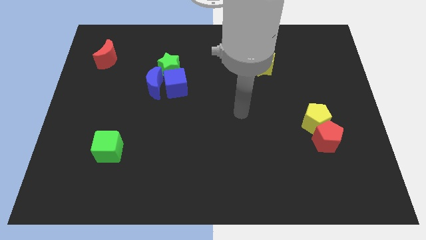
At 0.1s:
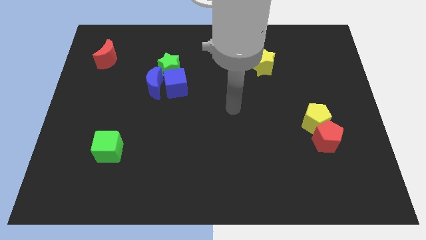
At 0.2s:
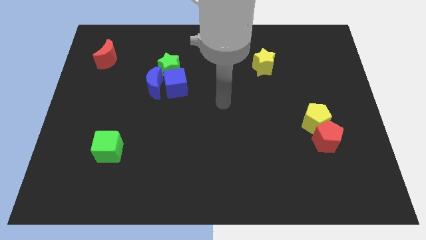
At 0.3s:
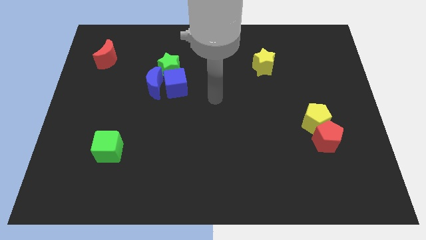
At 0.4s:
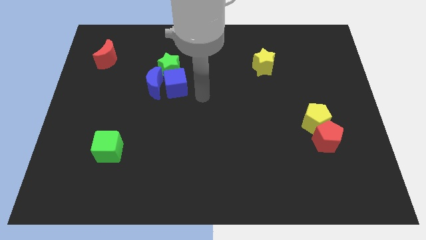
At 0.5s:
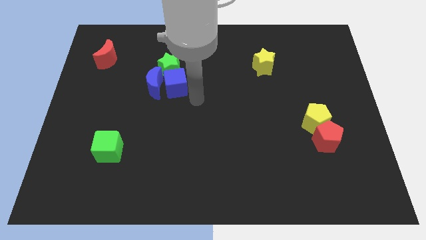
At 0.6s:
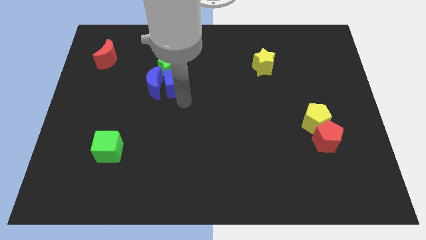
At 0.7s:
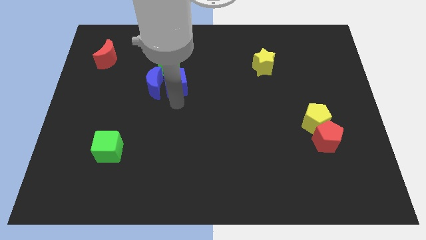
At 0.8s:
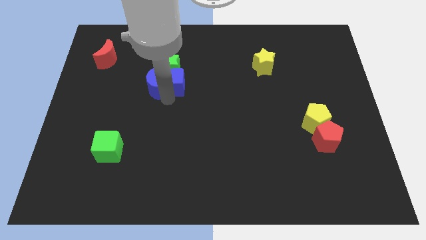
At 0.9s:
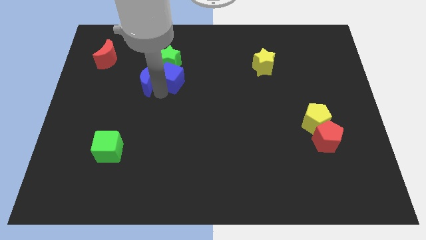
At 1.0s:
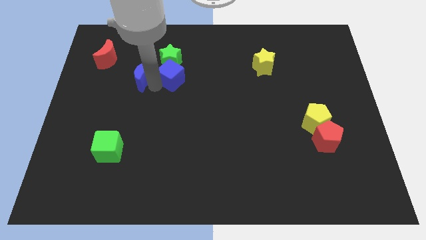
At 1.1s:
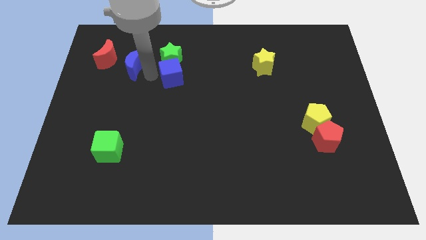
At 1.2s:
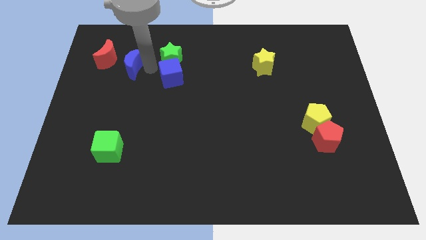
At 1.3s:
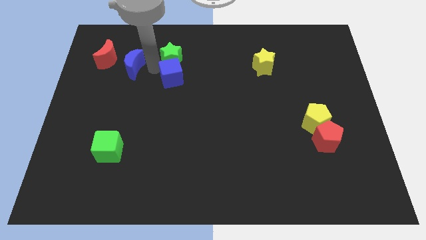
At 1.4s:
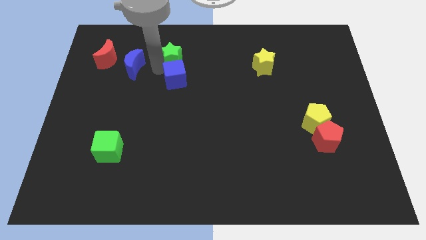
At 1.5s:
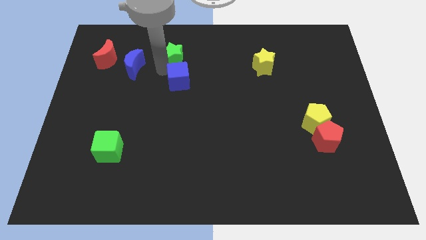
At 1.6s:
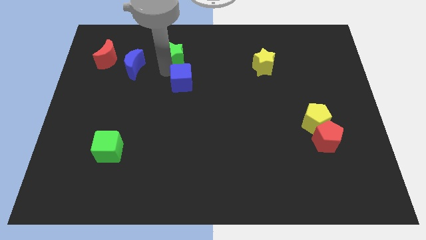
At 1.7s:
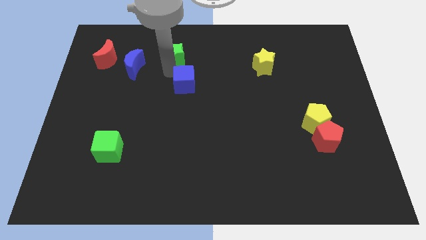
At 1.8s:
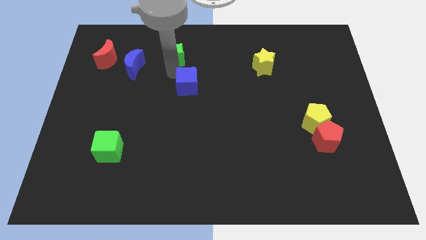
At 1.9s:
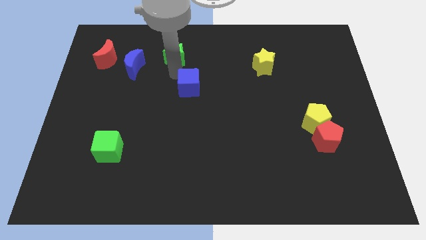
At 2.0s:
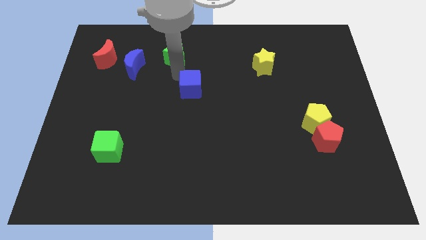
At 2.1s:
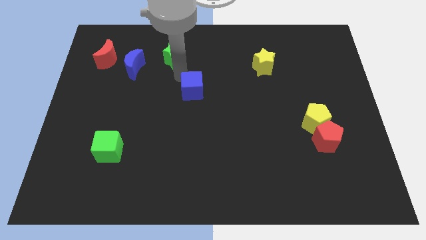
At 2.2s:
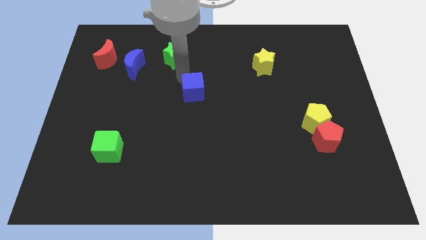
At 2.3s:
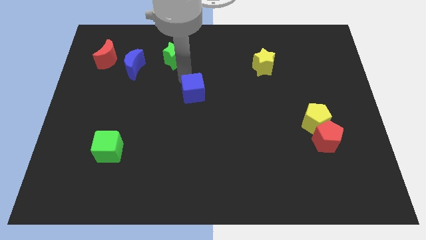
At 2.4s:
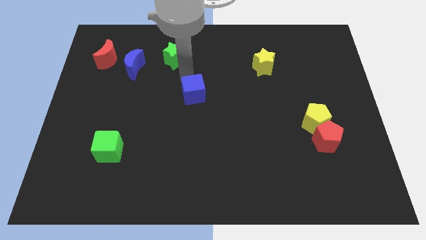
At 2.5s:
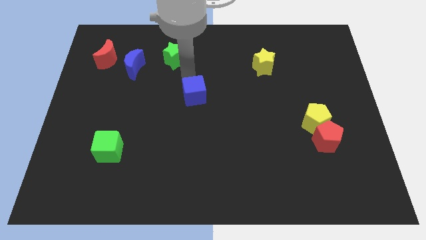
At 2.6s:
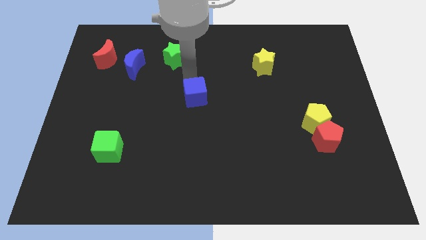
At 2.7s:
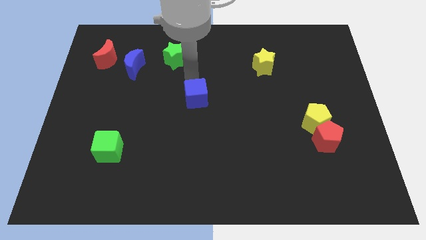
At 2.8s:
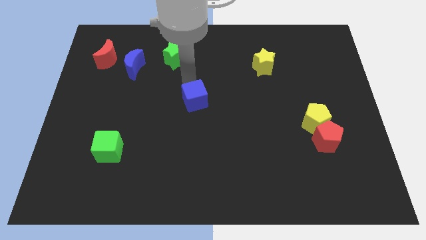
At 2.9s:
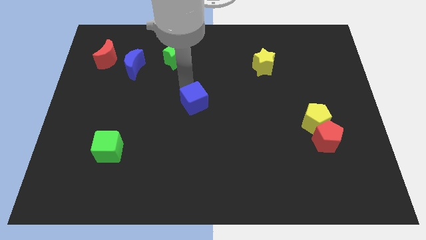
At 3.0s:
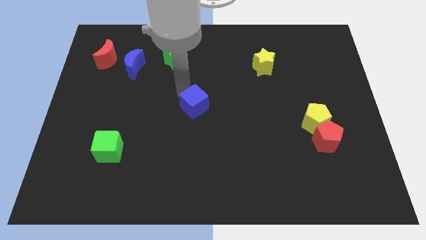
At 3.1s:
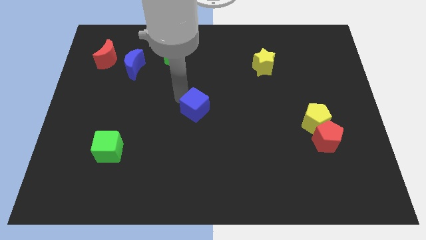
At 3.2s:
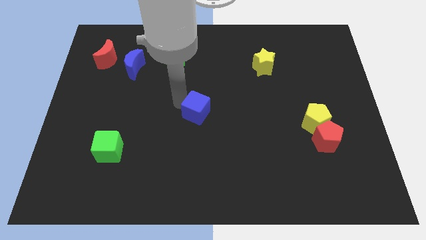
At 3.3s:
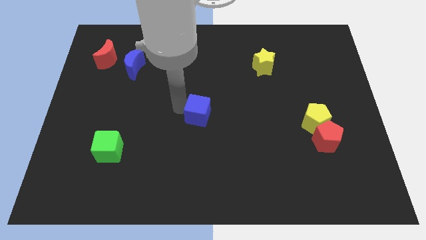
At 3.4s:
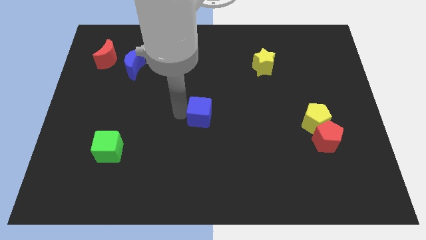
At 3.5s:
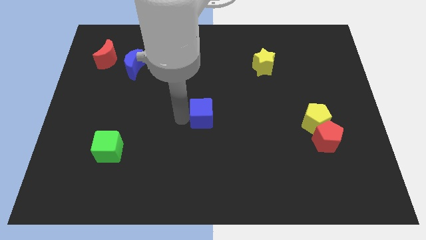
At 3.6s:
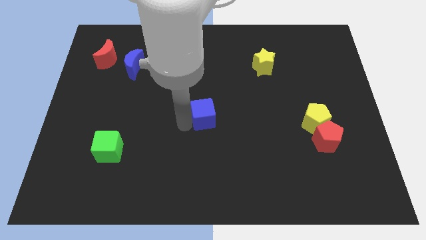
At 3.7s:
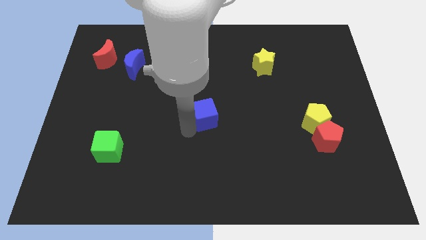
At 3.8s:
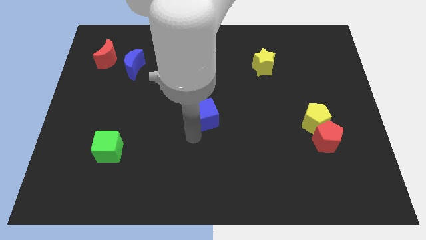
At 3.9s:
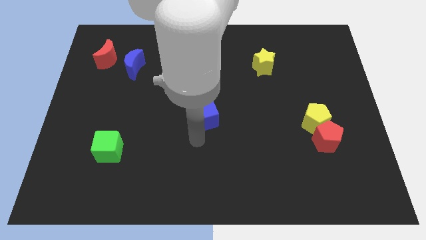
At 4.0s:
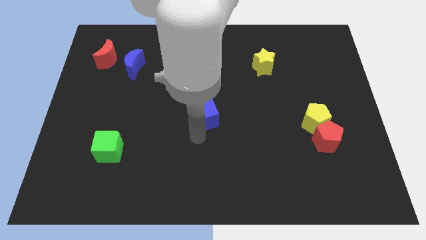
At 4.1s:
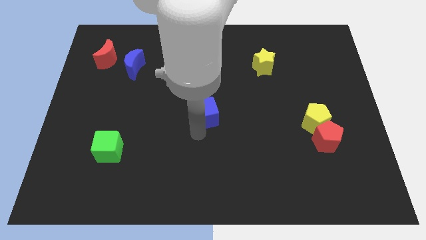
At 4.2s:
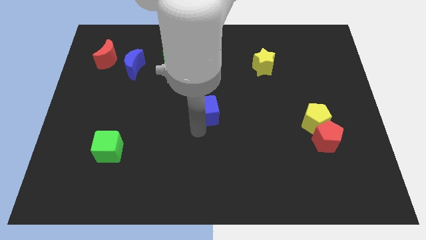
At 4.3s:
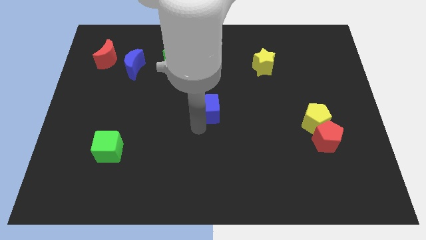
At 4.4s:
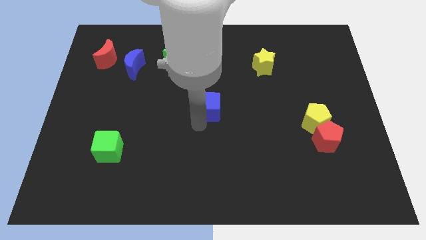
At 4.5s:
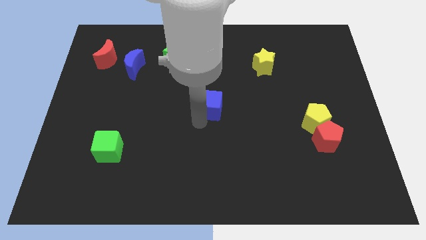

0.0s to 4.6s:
slide the blue cube right a little bit

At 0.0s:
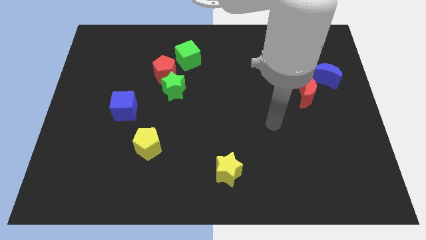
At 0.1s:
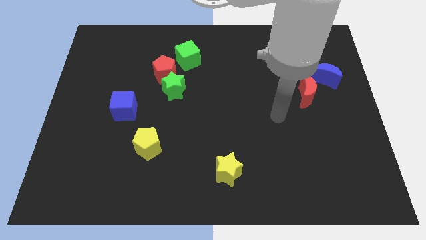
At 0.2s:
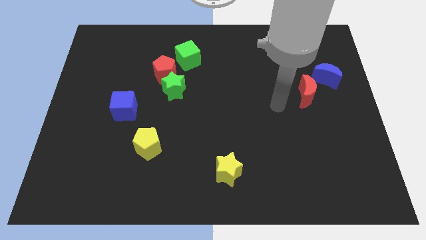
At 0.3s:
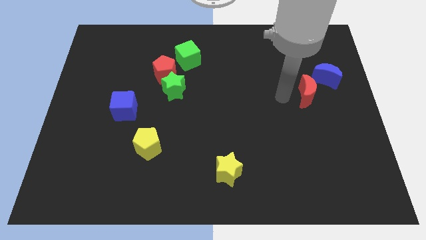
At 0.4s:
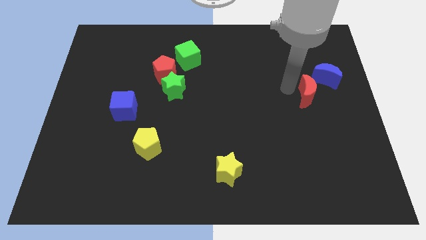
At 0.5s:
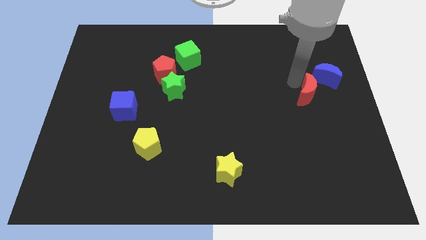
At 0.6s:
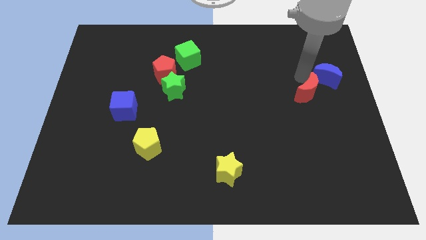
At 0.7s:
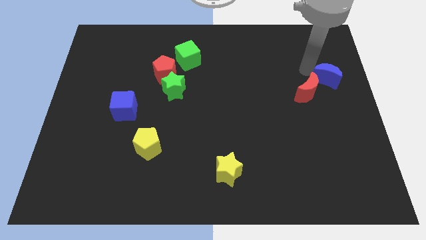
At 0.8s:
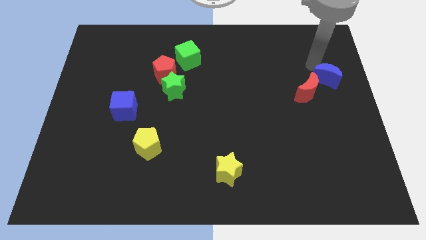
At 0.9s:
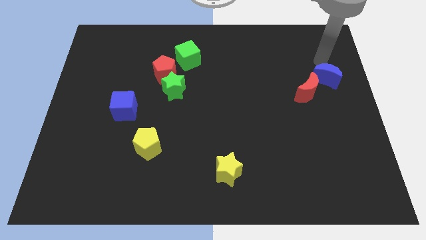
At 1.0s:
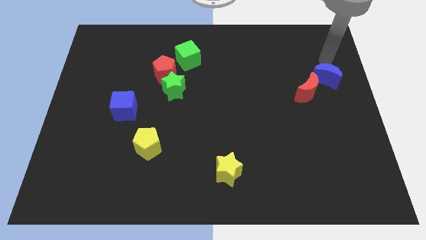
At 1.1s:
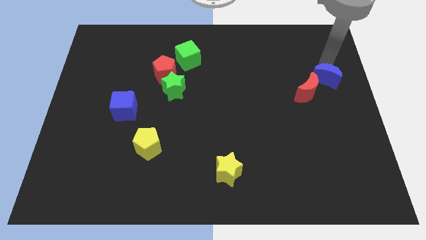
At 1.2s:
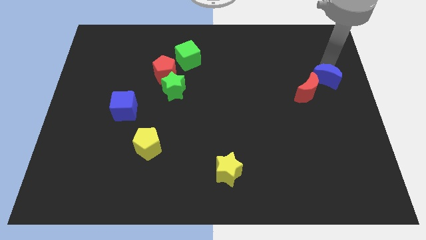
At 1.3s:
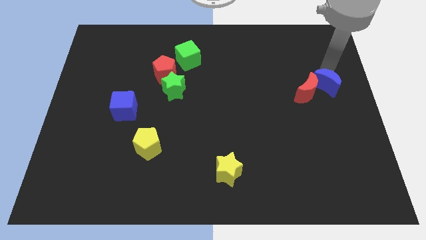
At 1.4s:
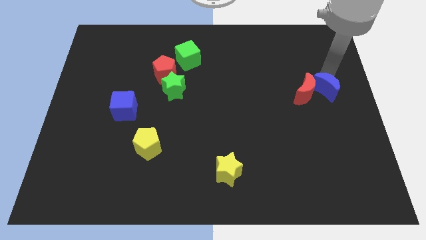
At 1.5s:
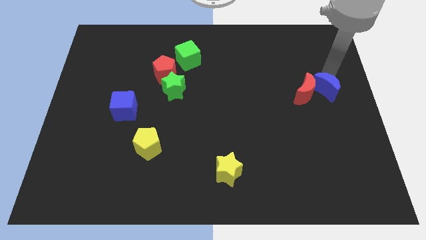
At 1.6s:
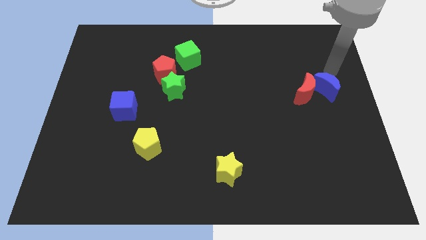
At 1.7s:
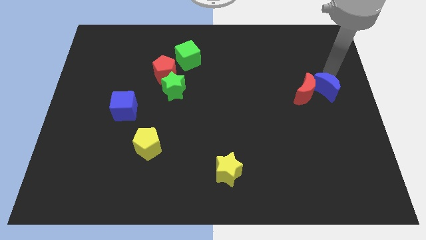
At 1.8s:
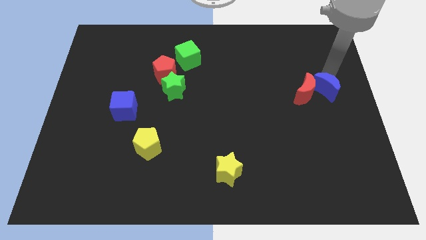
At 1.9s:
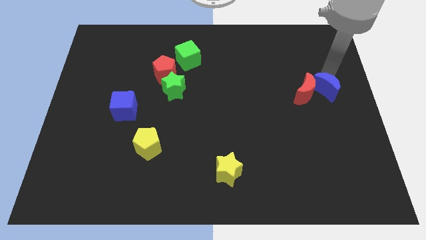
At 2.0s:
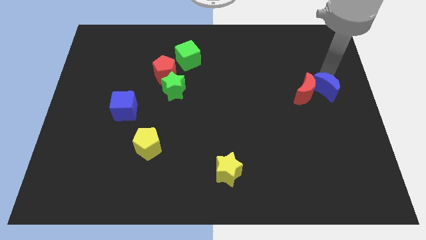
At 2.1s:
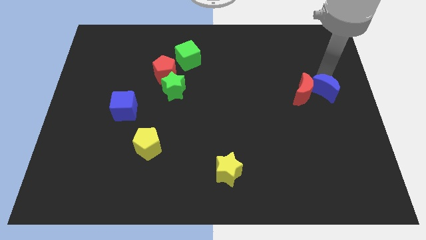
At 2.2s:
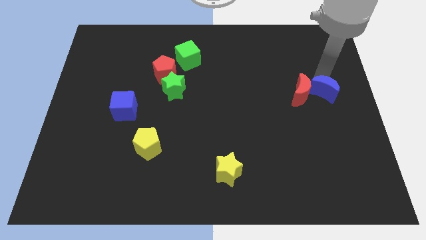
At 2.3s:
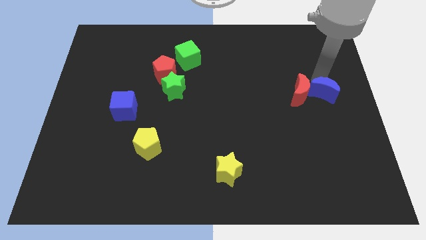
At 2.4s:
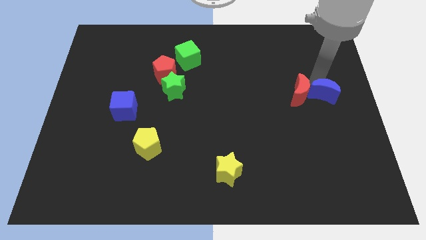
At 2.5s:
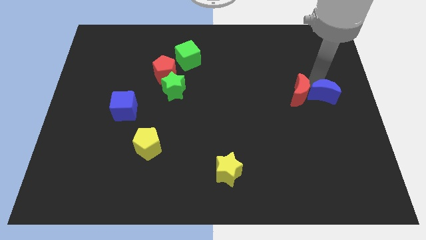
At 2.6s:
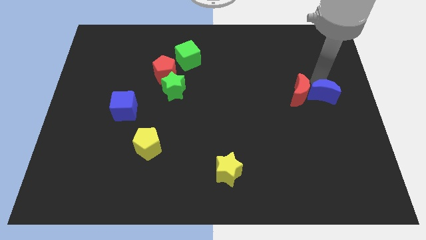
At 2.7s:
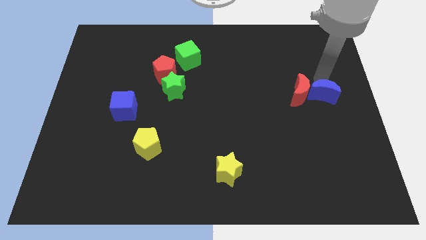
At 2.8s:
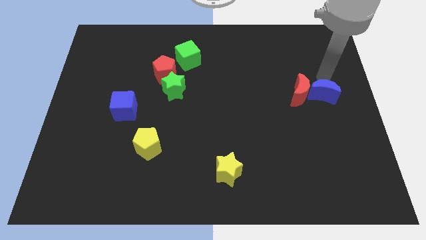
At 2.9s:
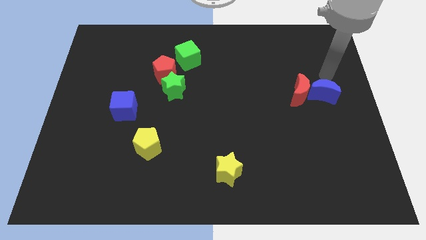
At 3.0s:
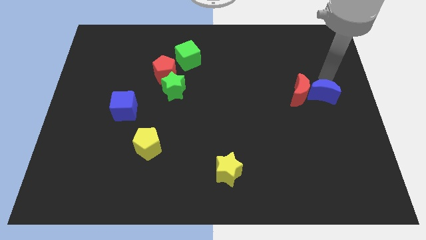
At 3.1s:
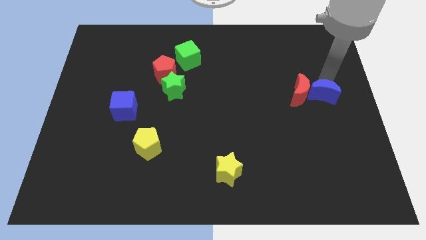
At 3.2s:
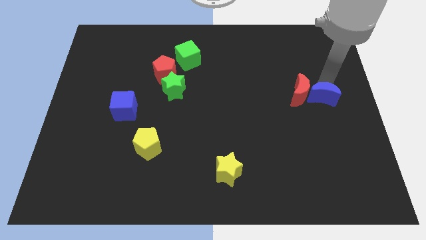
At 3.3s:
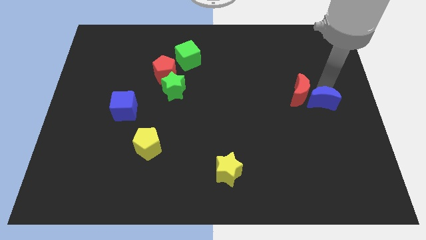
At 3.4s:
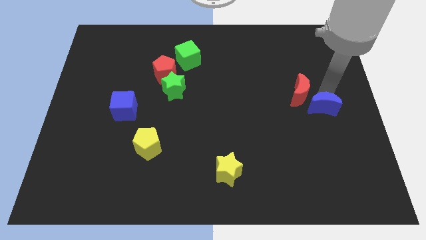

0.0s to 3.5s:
slide the blue moon somewhat downwards and then left
